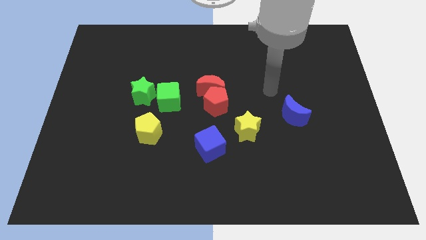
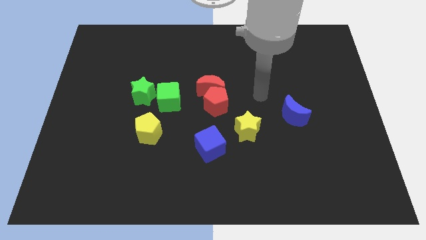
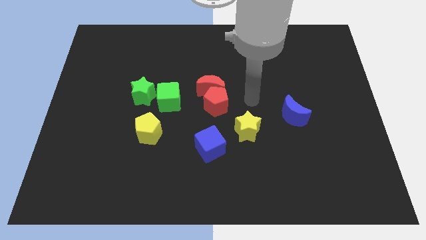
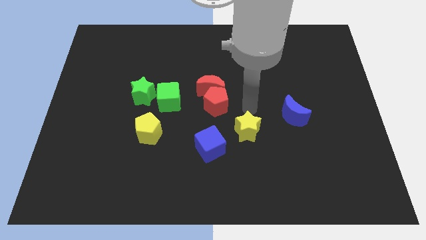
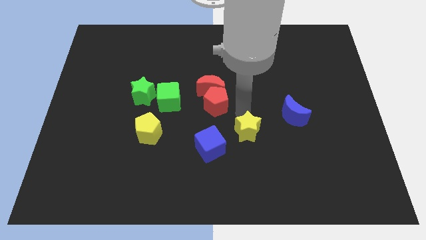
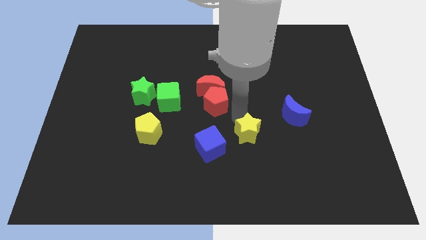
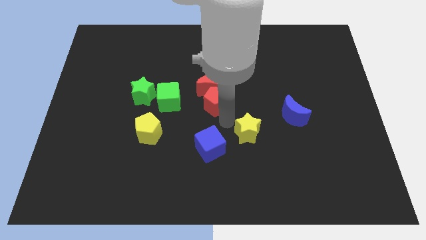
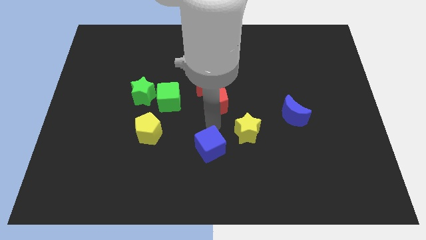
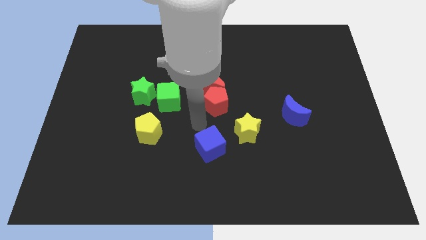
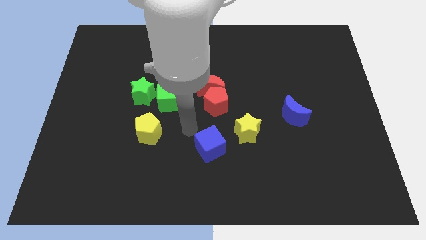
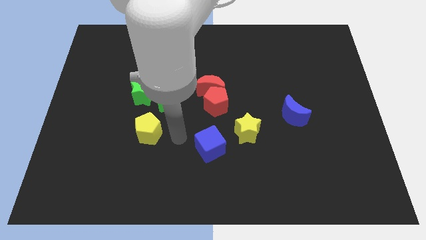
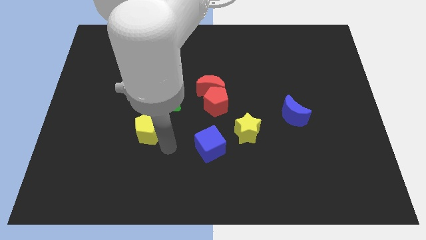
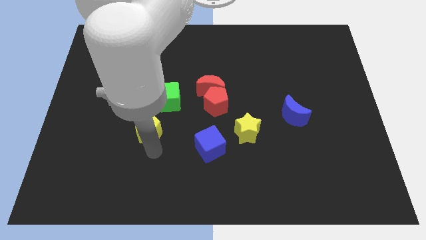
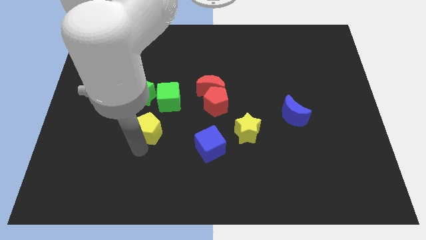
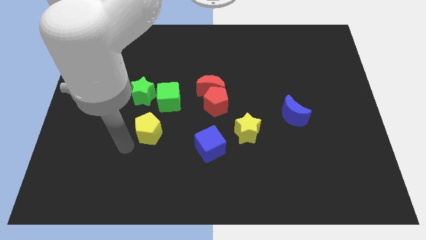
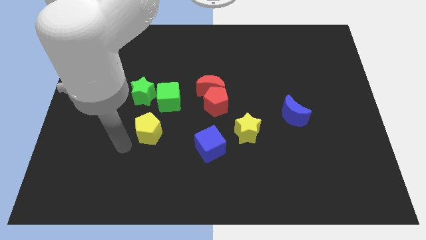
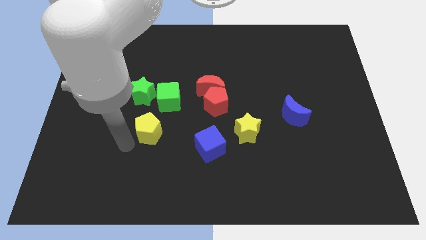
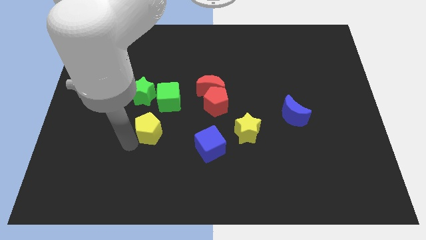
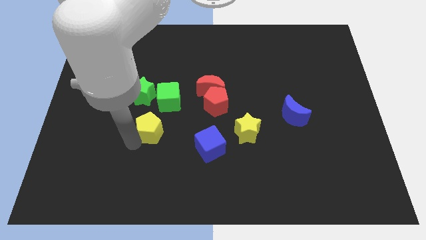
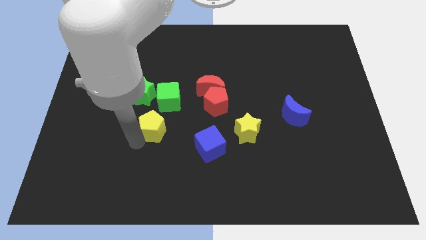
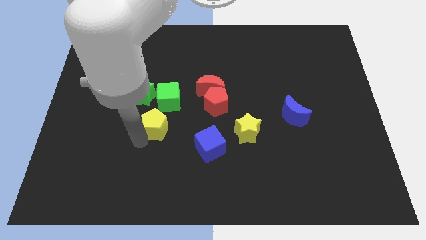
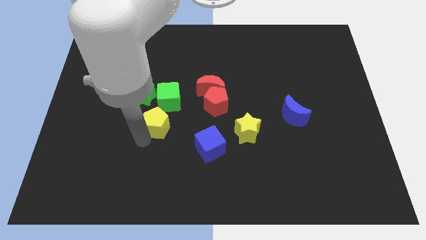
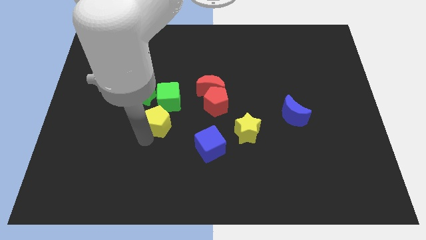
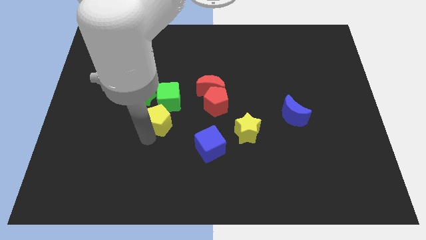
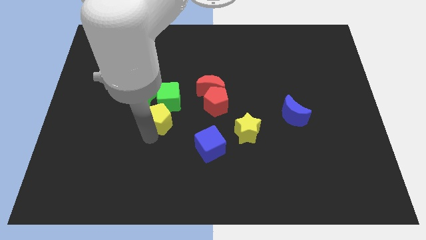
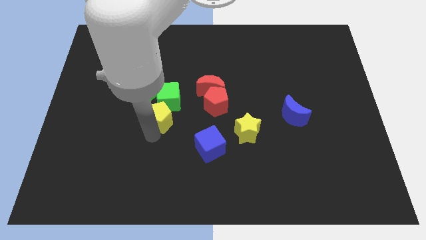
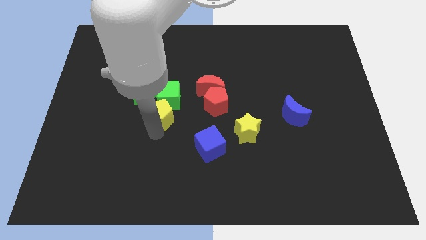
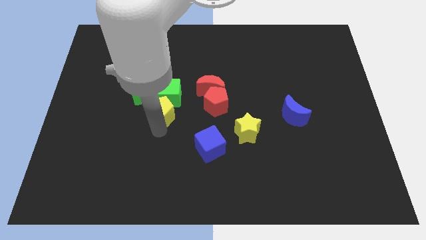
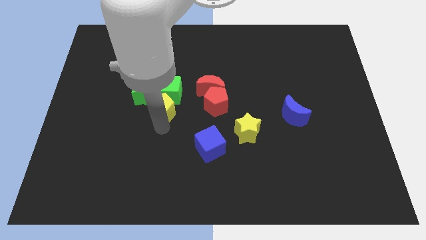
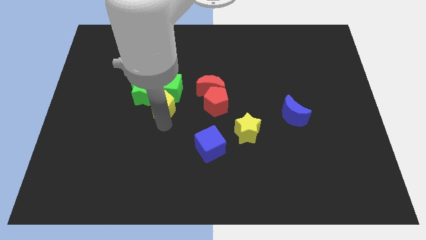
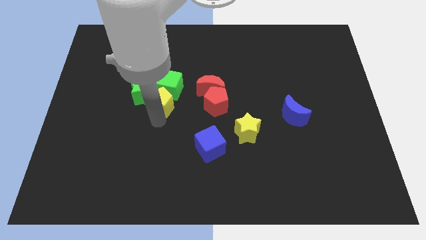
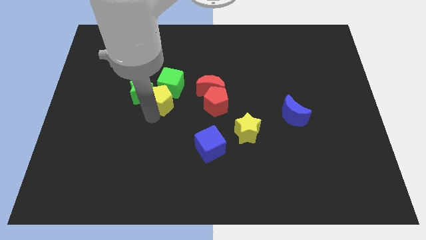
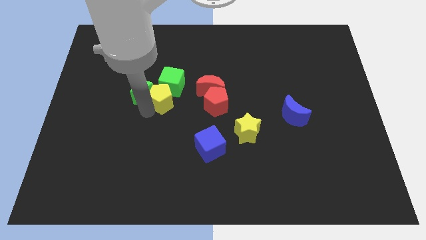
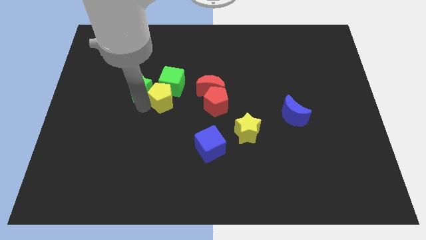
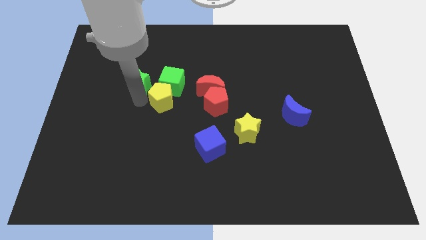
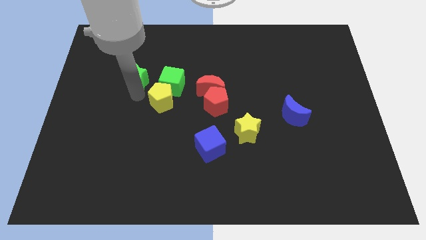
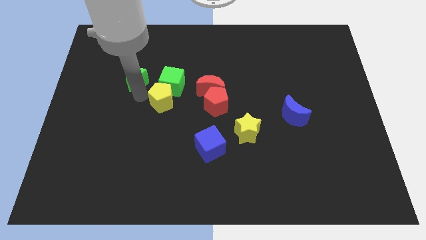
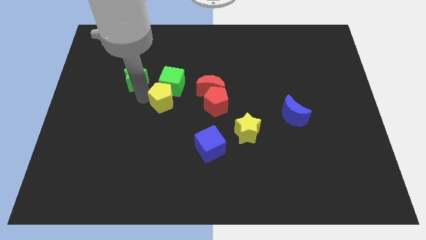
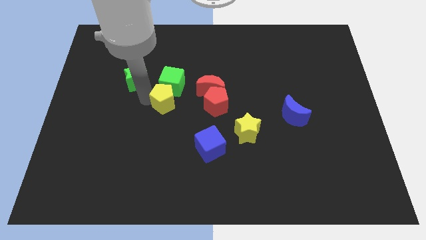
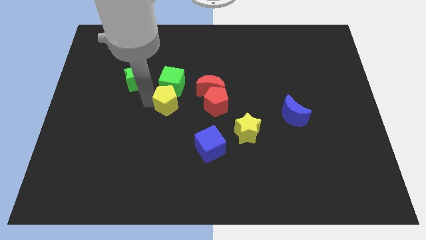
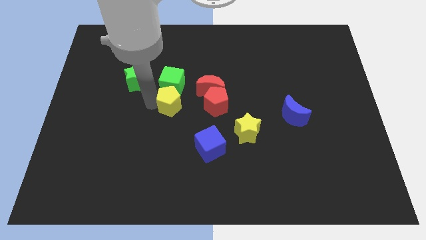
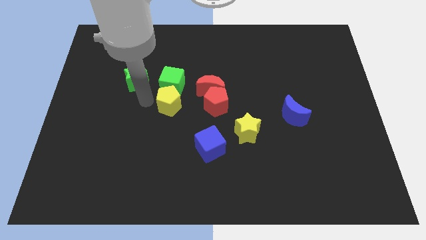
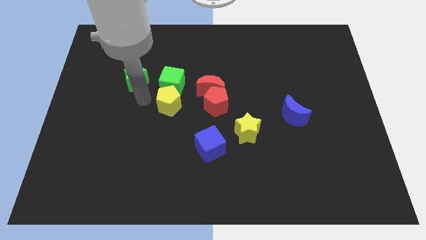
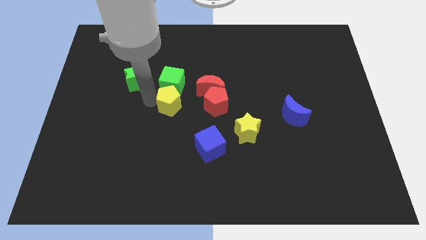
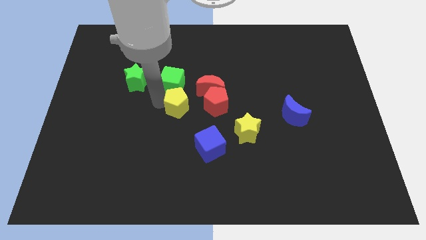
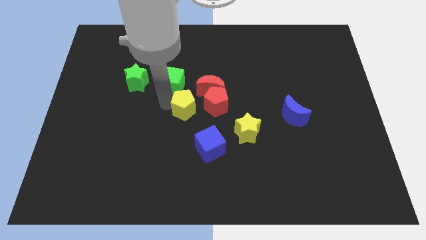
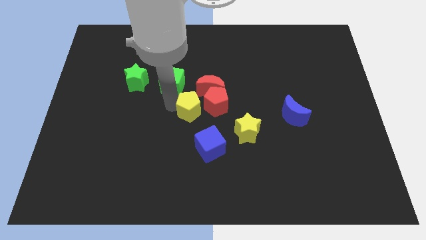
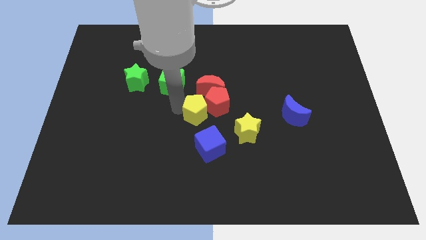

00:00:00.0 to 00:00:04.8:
slide the yellow pentagon to the red pentagon

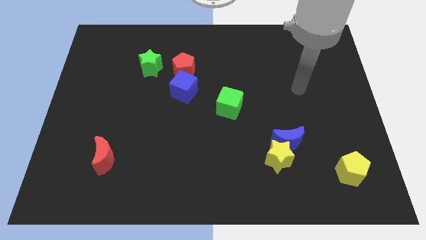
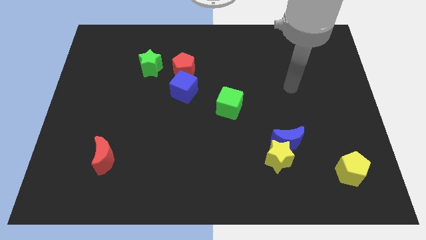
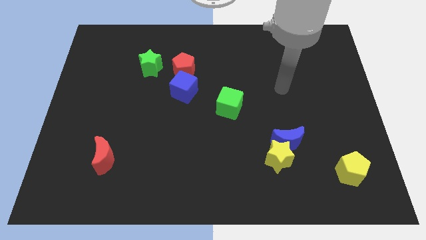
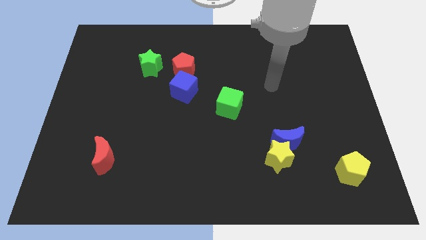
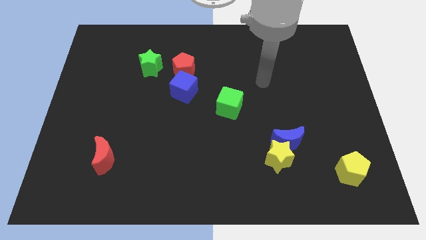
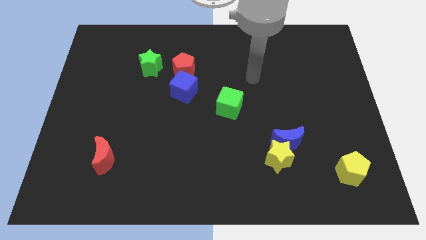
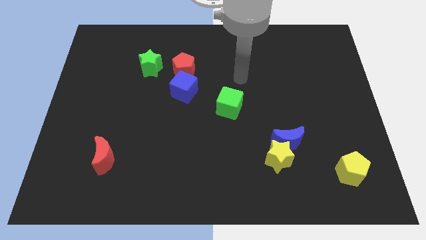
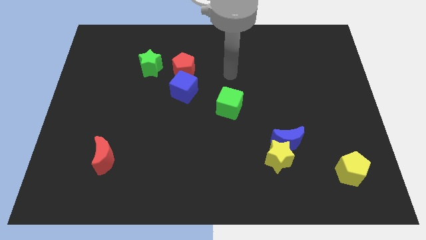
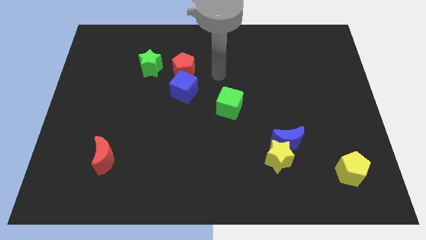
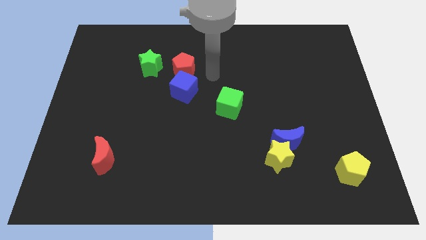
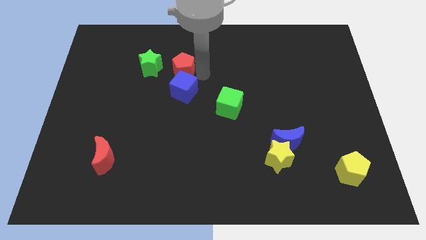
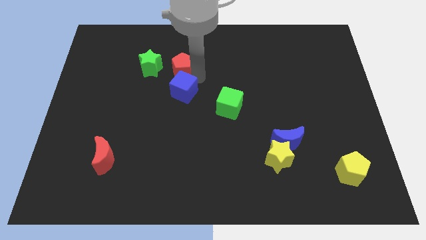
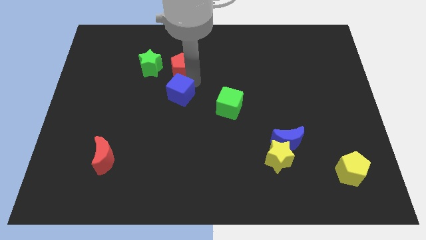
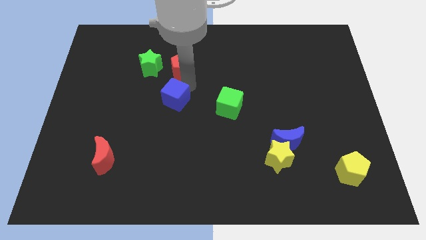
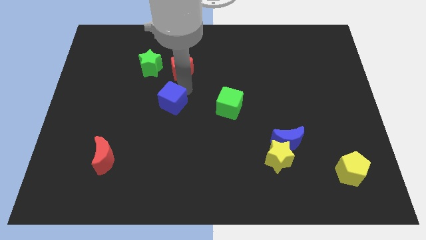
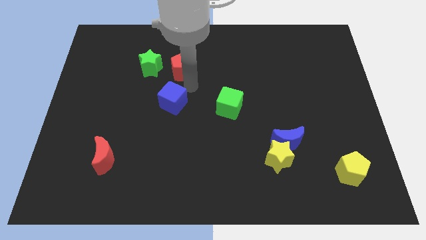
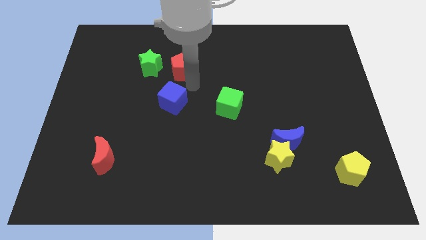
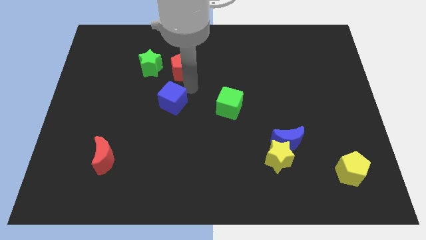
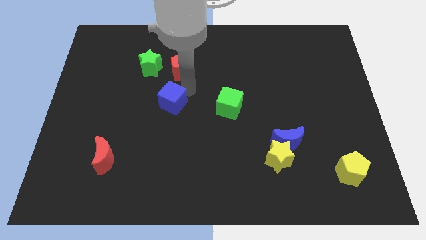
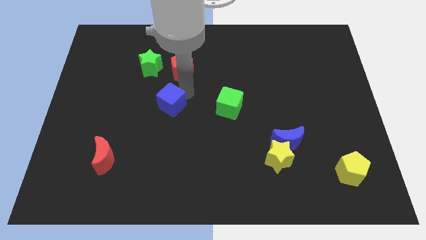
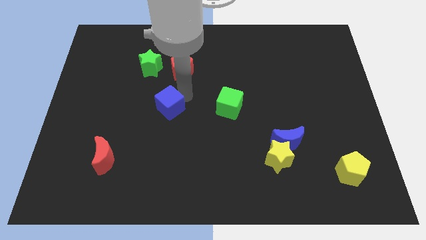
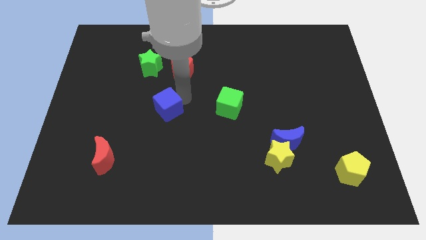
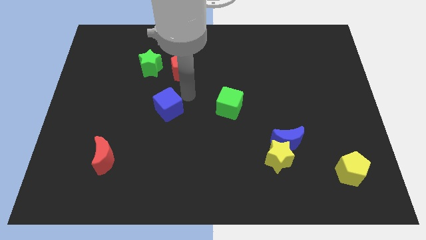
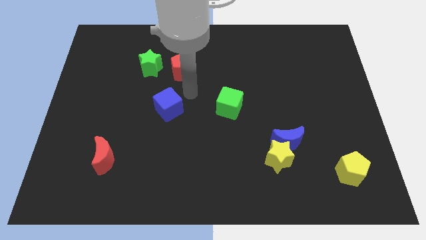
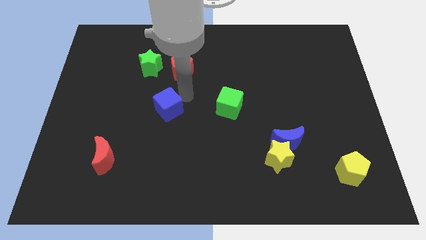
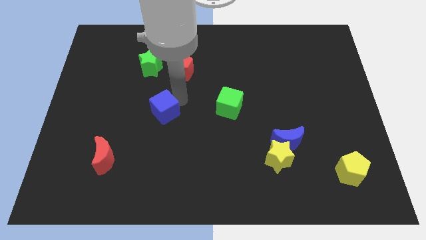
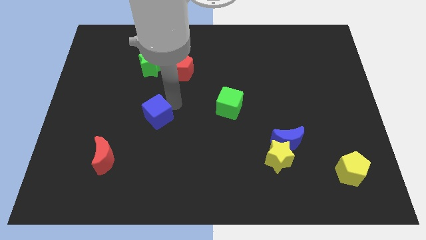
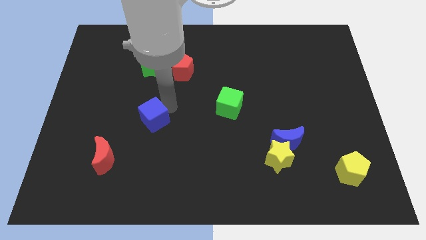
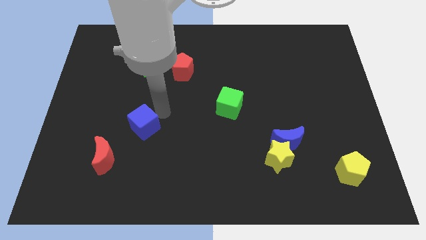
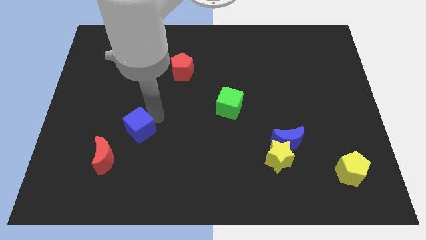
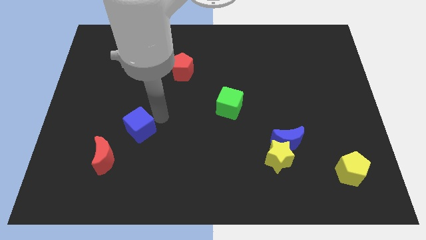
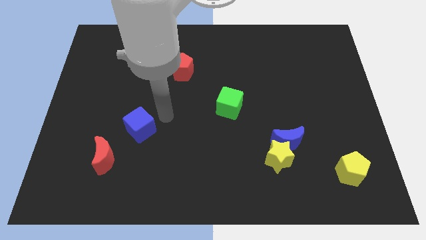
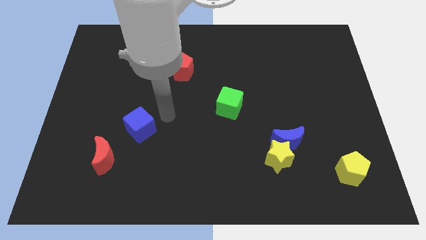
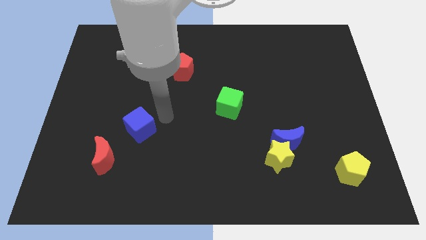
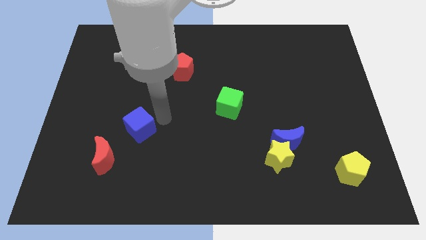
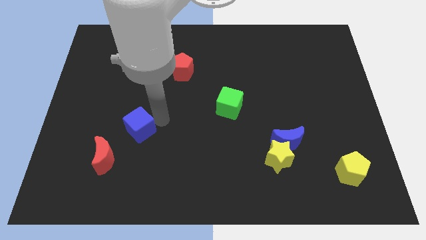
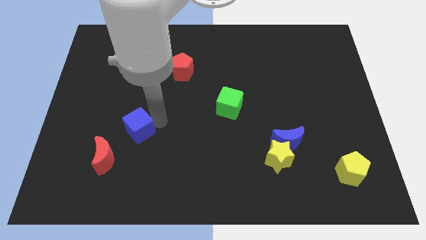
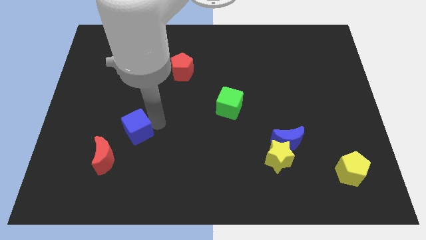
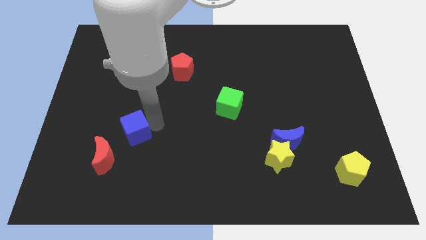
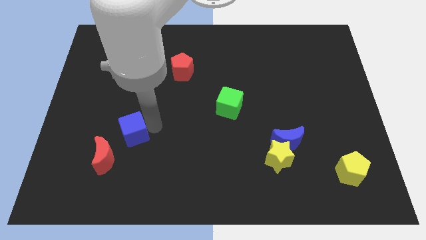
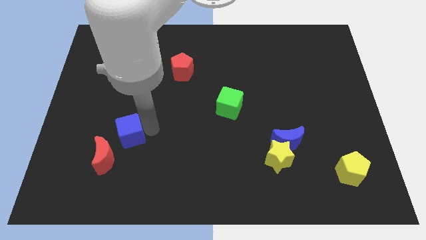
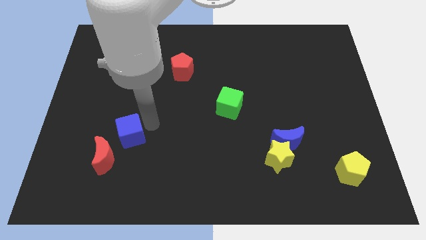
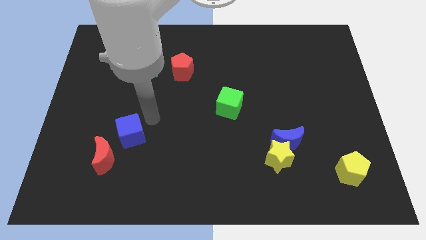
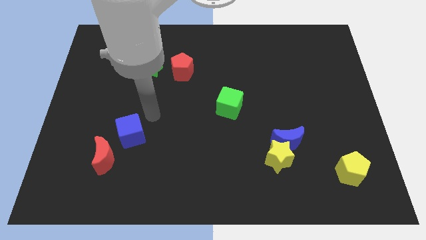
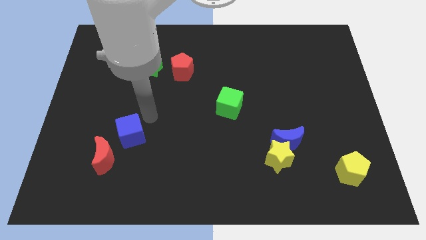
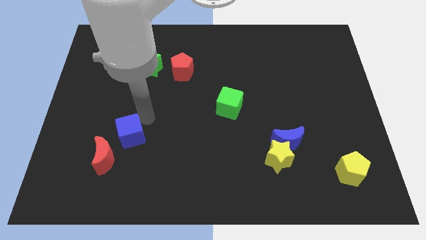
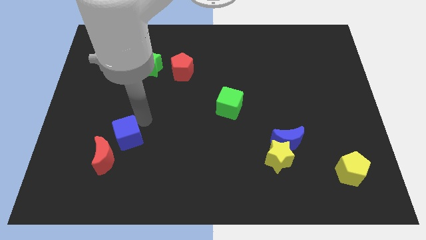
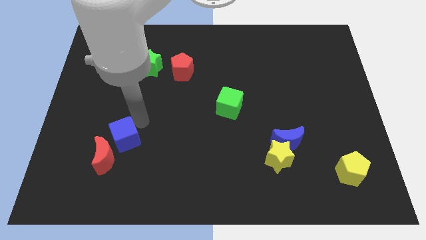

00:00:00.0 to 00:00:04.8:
slide the blue cube to the red moon
